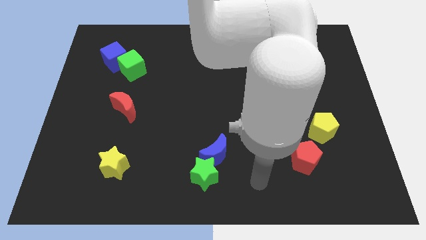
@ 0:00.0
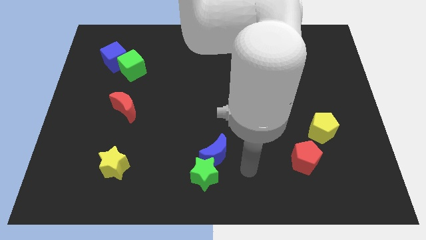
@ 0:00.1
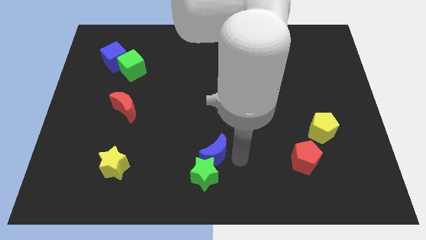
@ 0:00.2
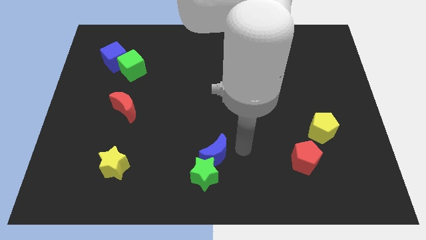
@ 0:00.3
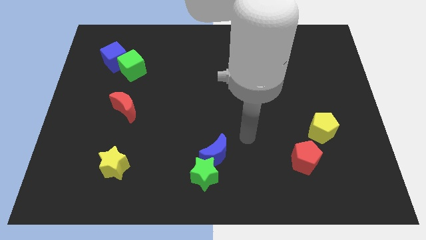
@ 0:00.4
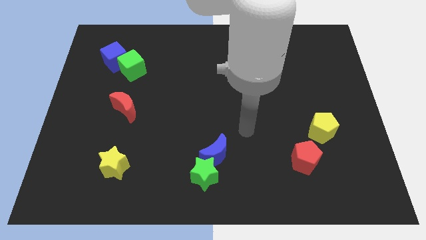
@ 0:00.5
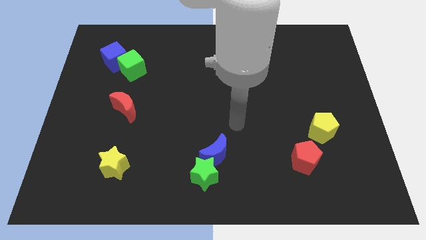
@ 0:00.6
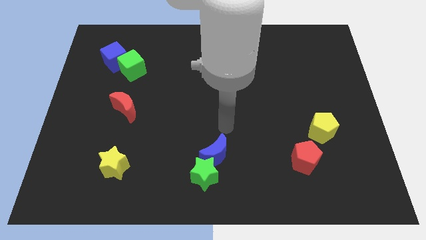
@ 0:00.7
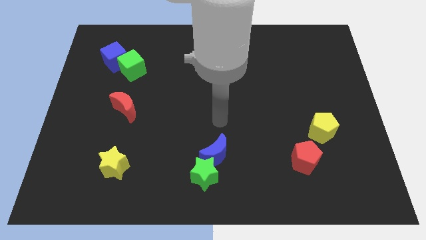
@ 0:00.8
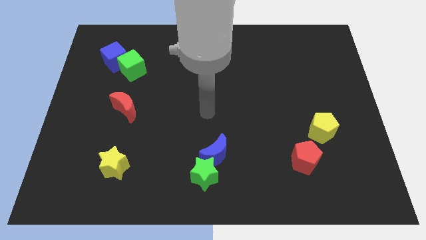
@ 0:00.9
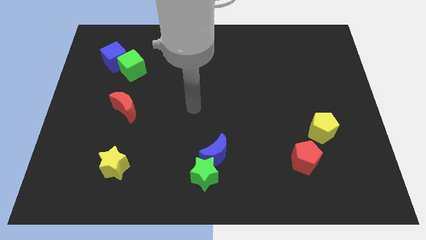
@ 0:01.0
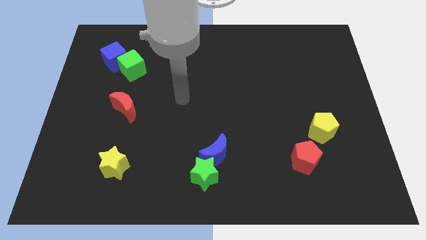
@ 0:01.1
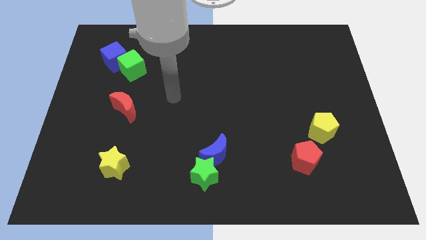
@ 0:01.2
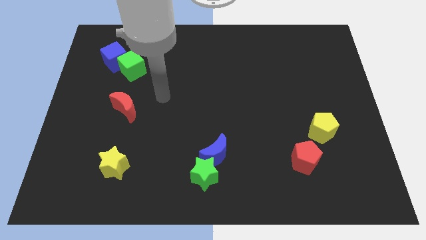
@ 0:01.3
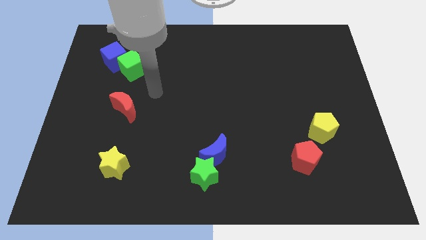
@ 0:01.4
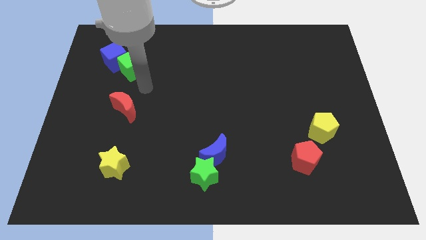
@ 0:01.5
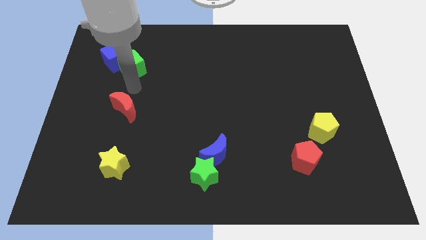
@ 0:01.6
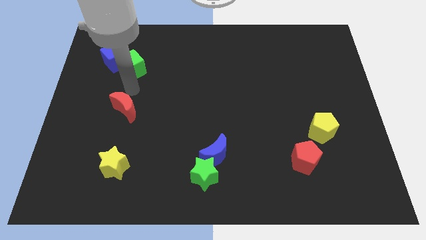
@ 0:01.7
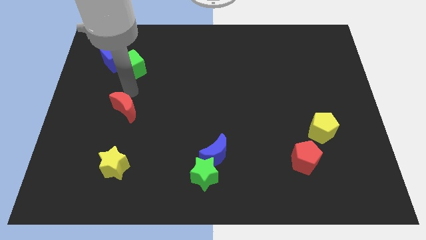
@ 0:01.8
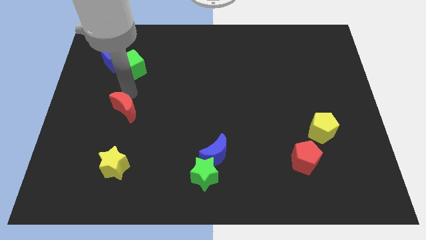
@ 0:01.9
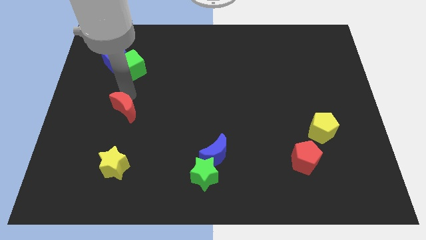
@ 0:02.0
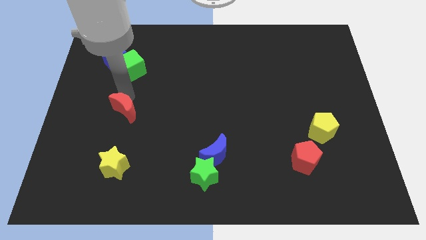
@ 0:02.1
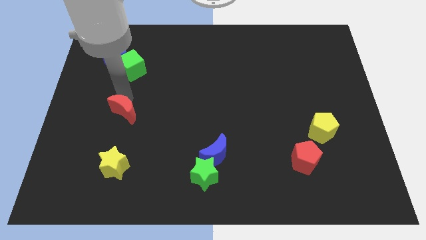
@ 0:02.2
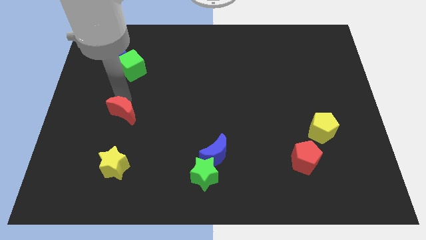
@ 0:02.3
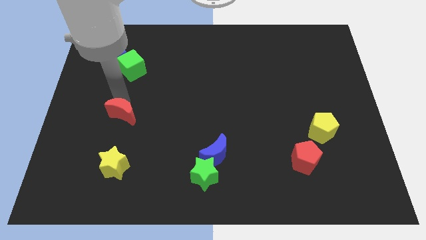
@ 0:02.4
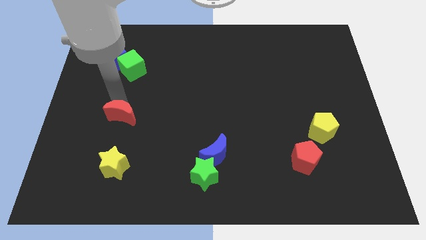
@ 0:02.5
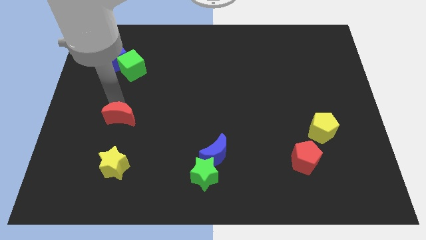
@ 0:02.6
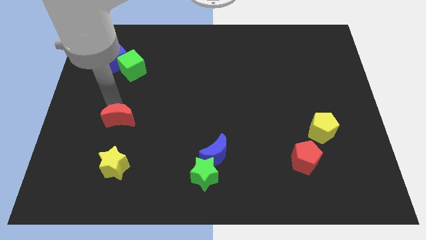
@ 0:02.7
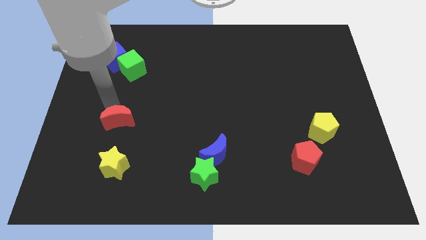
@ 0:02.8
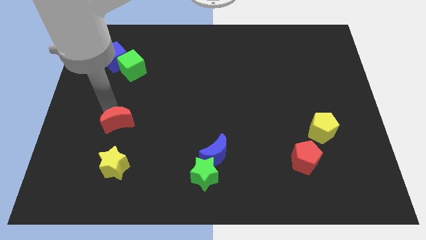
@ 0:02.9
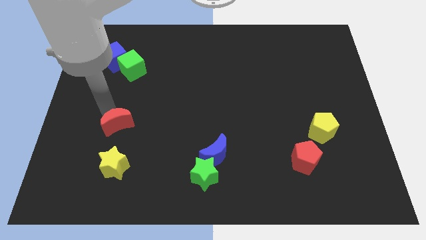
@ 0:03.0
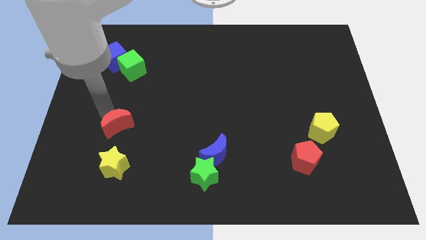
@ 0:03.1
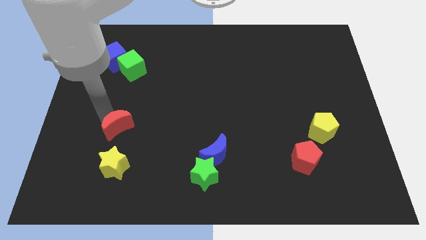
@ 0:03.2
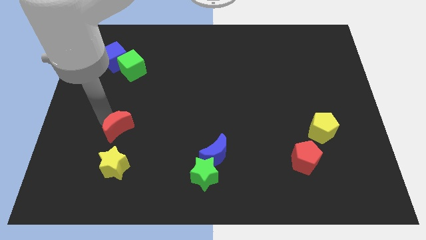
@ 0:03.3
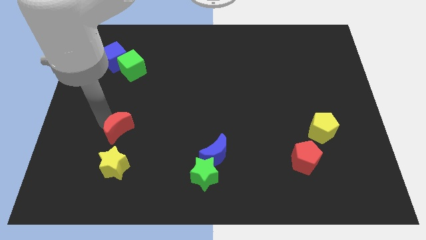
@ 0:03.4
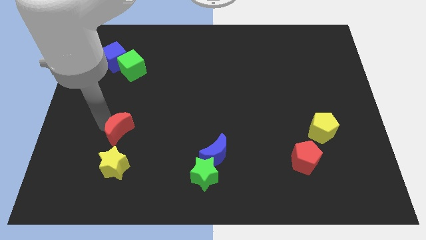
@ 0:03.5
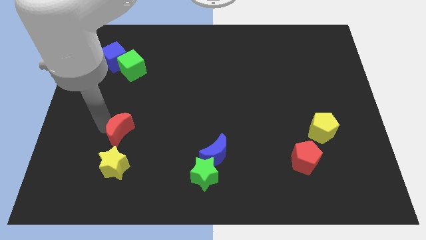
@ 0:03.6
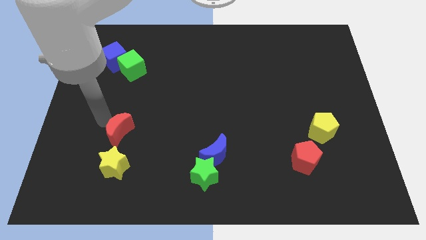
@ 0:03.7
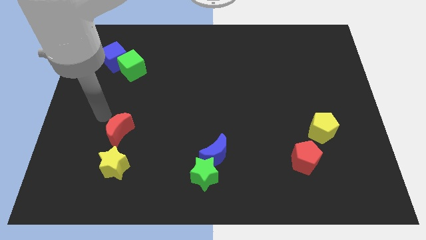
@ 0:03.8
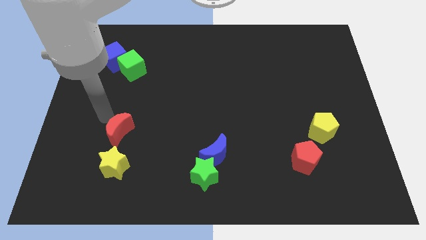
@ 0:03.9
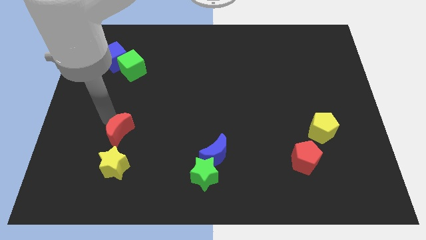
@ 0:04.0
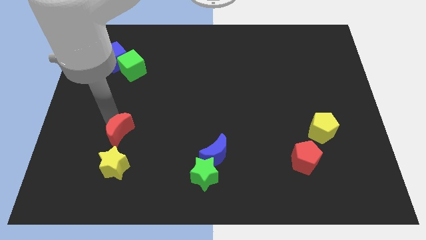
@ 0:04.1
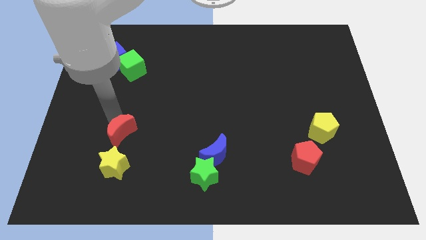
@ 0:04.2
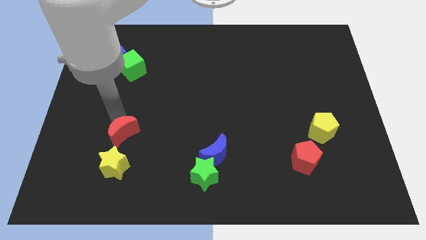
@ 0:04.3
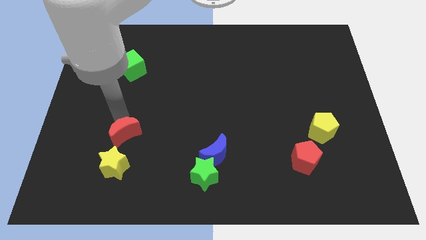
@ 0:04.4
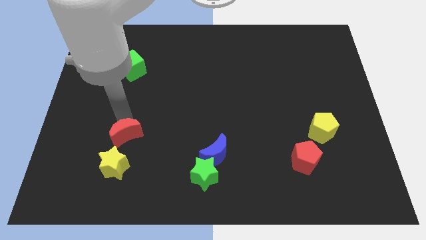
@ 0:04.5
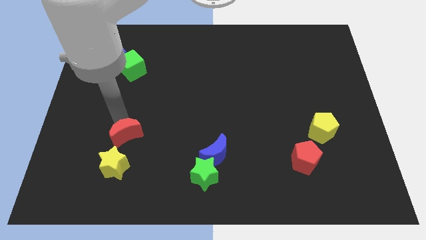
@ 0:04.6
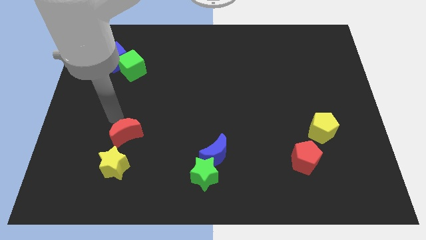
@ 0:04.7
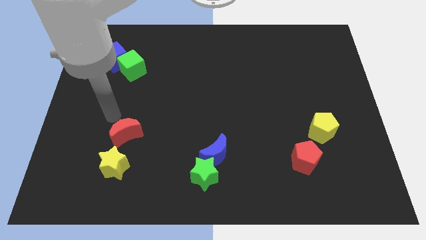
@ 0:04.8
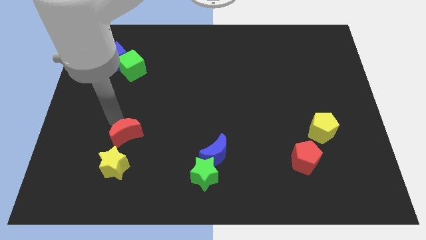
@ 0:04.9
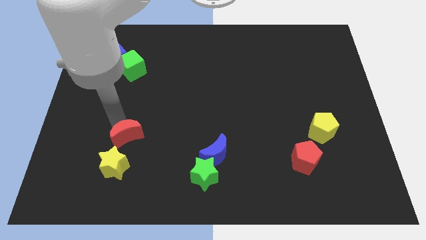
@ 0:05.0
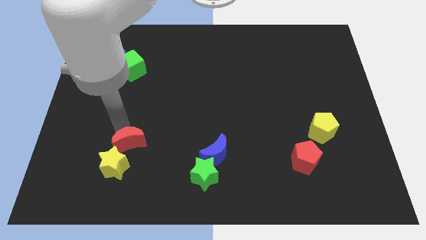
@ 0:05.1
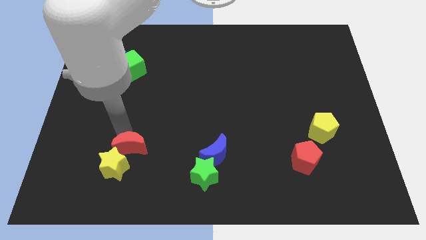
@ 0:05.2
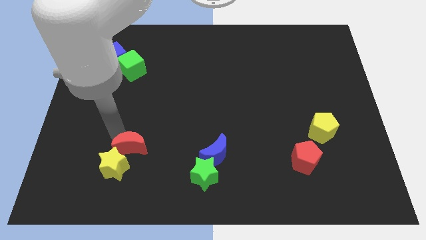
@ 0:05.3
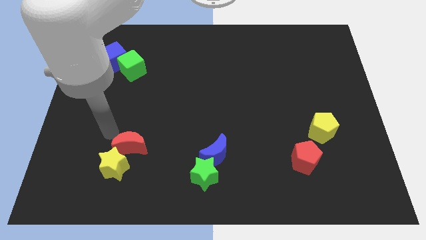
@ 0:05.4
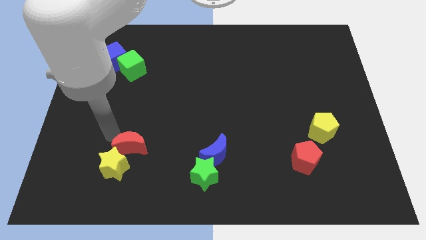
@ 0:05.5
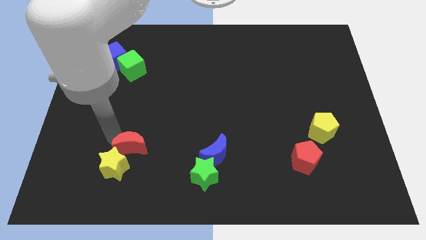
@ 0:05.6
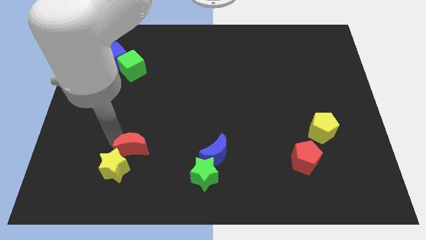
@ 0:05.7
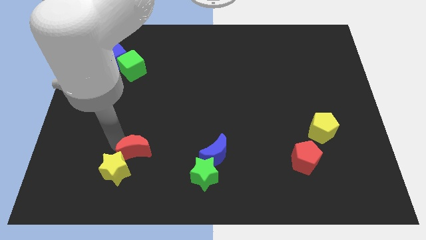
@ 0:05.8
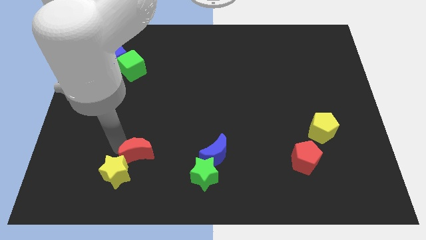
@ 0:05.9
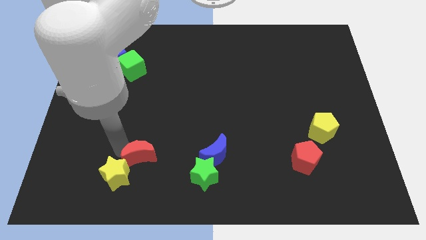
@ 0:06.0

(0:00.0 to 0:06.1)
put the red moon to the right of the yellow star
